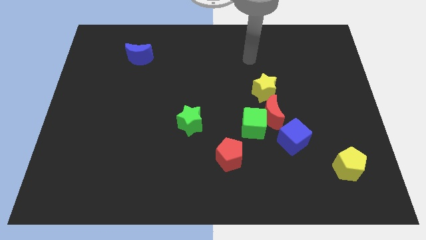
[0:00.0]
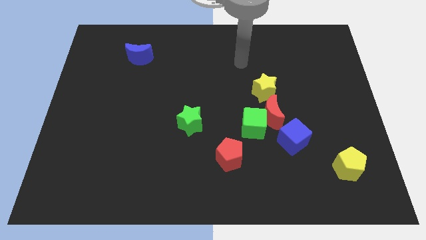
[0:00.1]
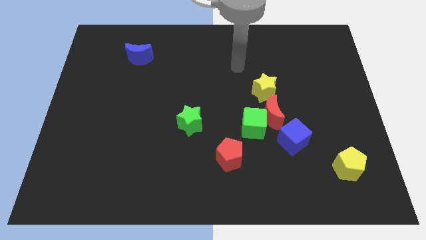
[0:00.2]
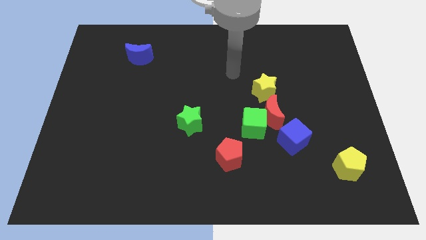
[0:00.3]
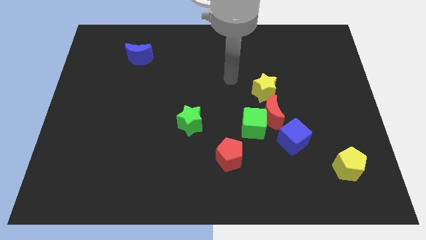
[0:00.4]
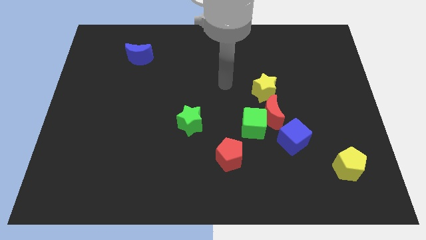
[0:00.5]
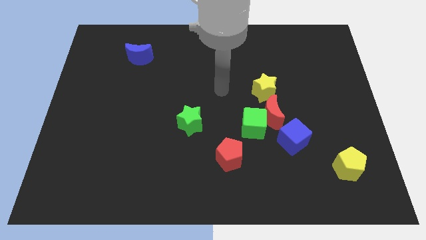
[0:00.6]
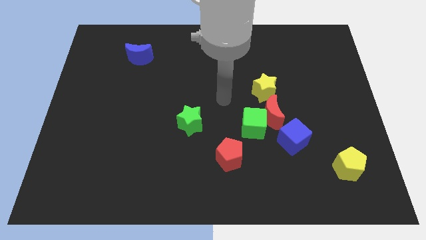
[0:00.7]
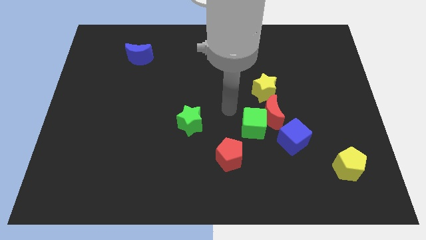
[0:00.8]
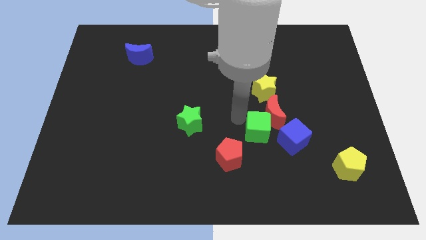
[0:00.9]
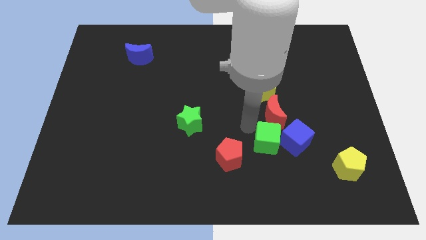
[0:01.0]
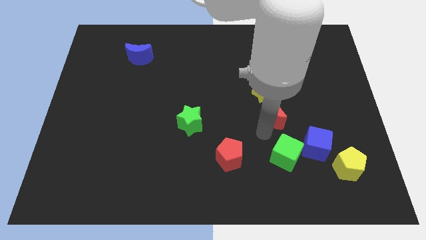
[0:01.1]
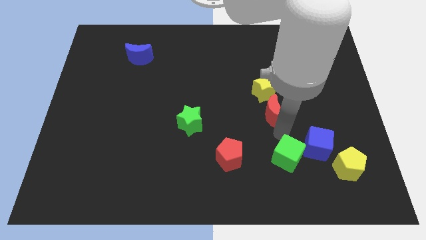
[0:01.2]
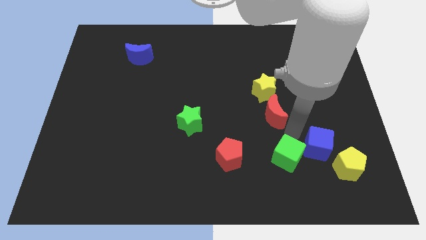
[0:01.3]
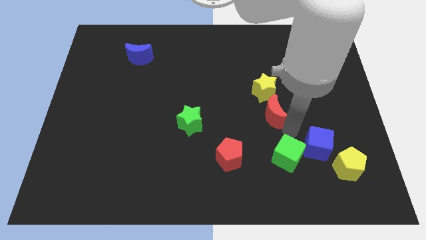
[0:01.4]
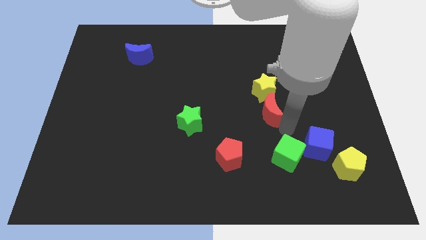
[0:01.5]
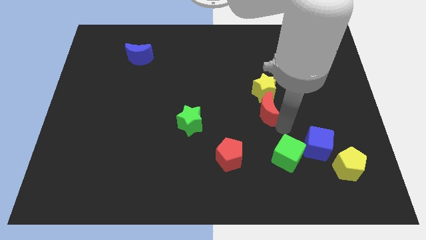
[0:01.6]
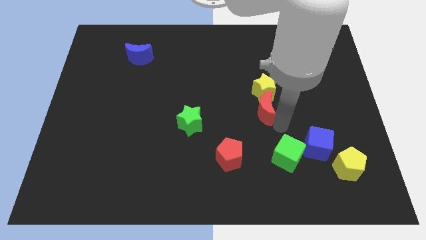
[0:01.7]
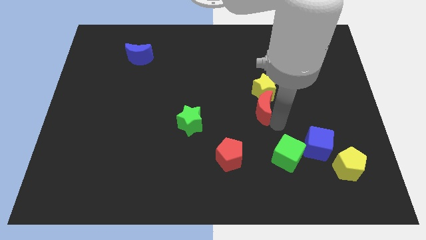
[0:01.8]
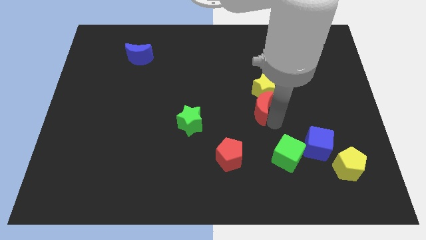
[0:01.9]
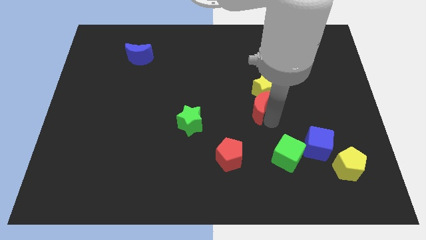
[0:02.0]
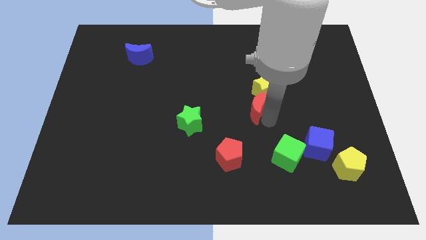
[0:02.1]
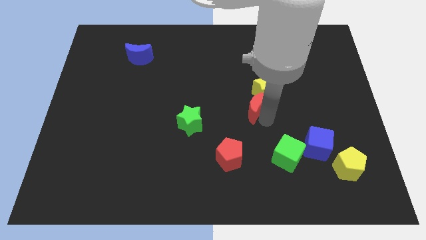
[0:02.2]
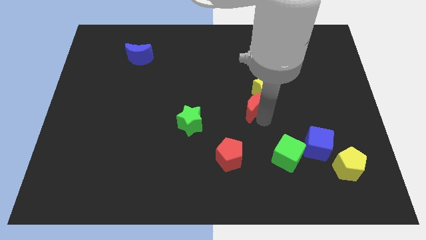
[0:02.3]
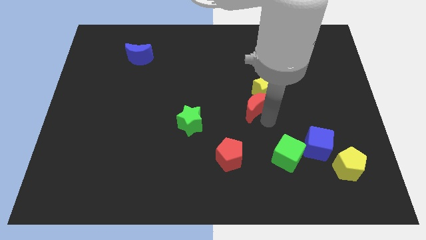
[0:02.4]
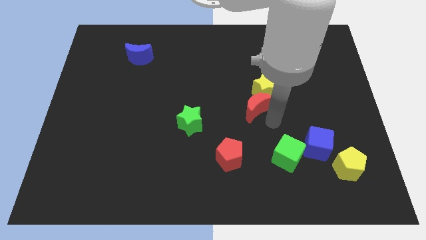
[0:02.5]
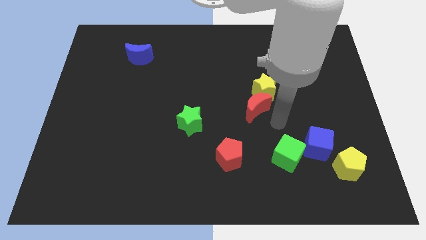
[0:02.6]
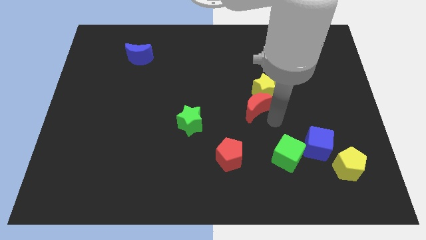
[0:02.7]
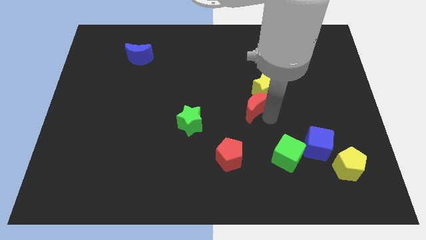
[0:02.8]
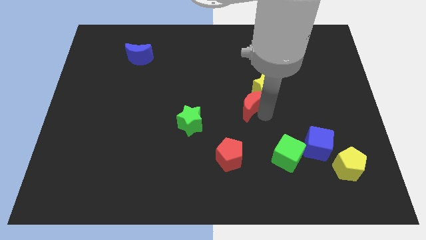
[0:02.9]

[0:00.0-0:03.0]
pull the red moon apart from the green cube, yellow star, and blue cube

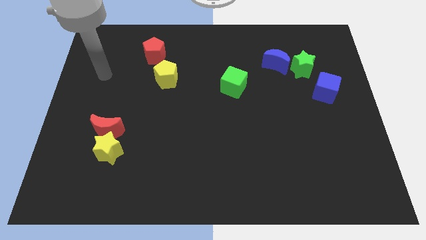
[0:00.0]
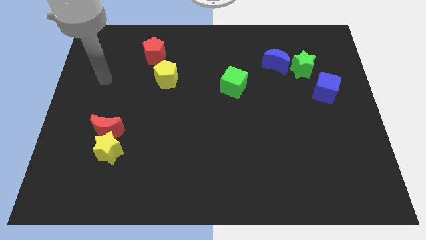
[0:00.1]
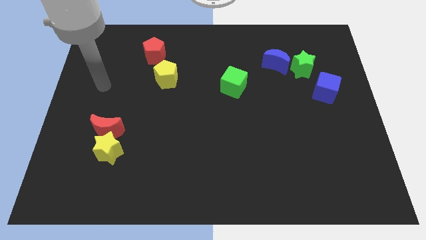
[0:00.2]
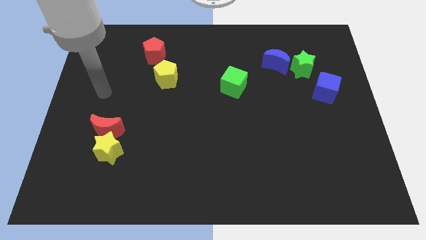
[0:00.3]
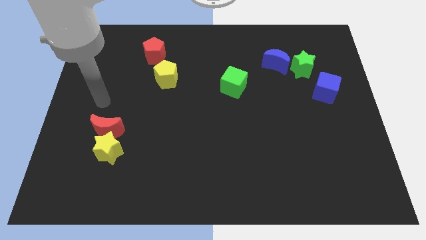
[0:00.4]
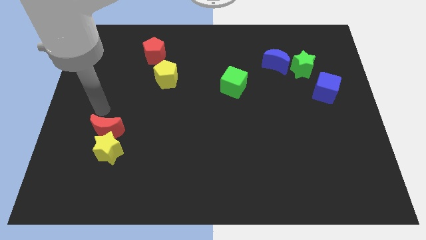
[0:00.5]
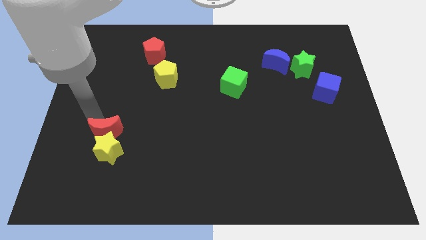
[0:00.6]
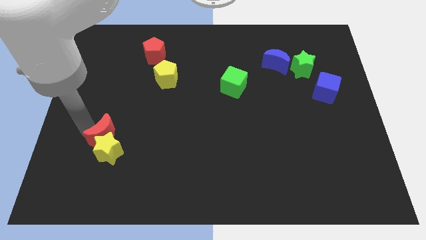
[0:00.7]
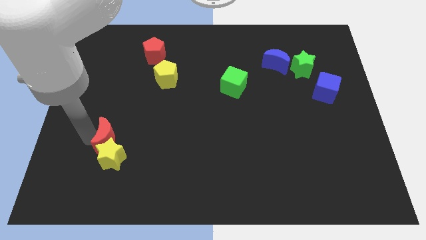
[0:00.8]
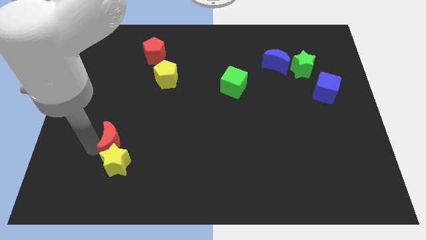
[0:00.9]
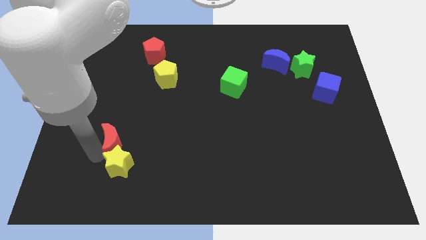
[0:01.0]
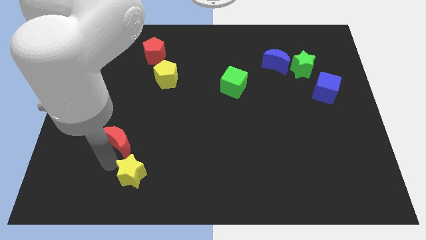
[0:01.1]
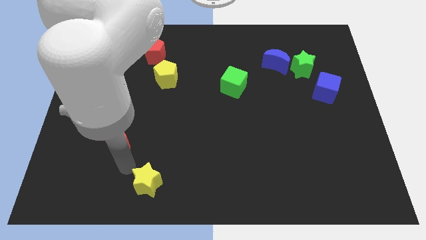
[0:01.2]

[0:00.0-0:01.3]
move the red moon away from the yellow star

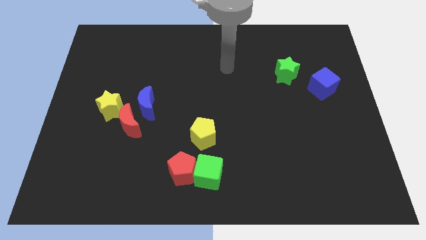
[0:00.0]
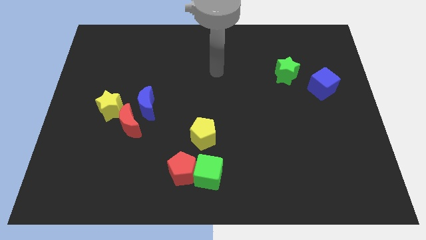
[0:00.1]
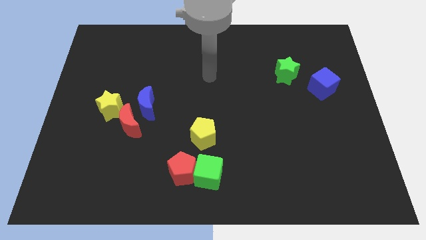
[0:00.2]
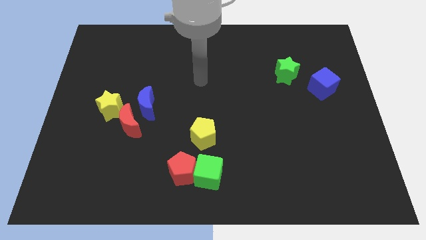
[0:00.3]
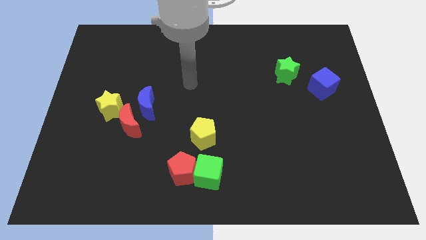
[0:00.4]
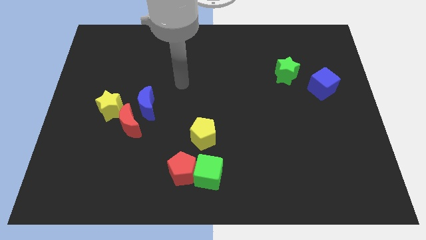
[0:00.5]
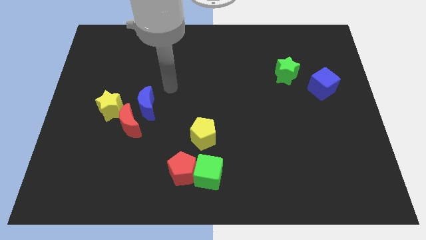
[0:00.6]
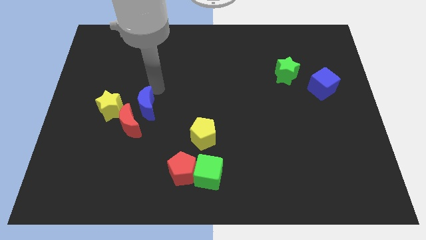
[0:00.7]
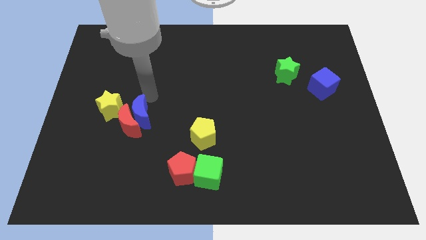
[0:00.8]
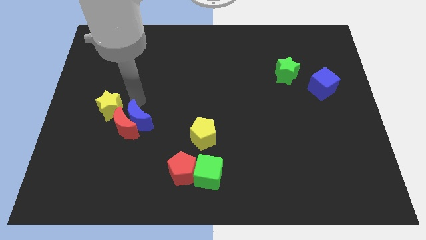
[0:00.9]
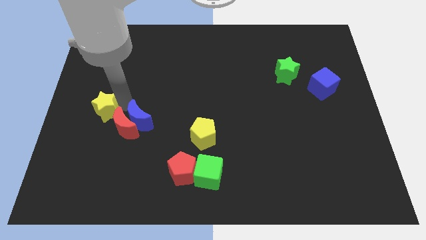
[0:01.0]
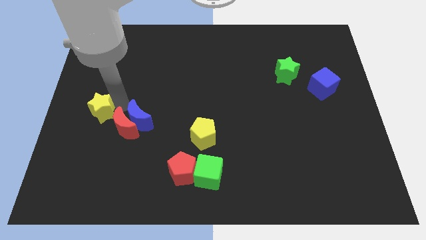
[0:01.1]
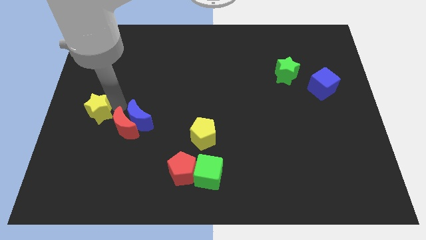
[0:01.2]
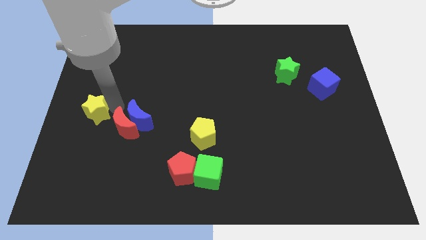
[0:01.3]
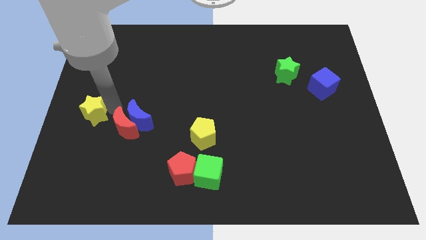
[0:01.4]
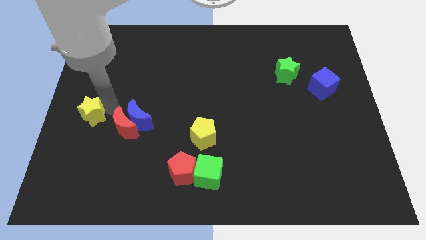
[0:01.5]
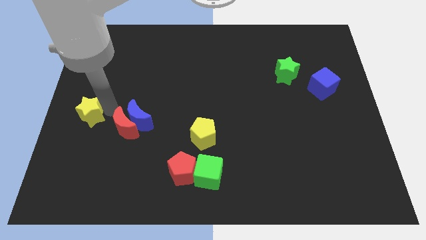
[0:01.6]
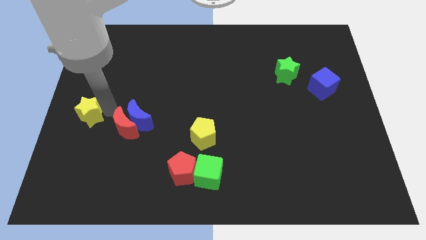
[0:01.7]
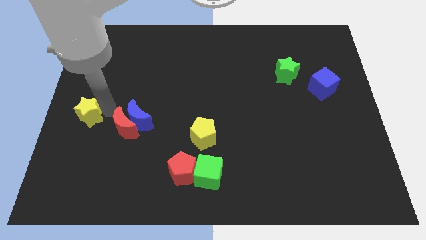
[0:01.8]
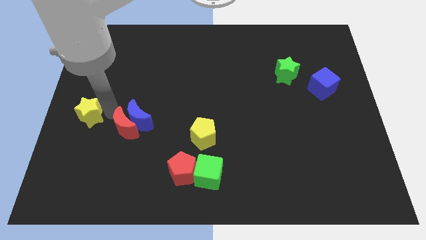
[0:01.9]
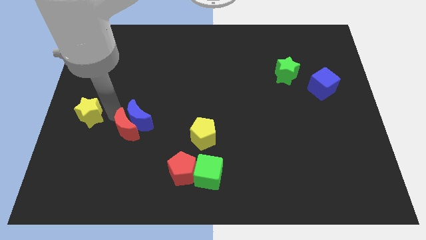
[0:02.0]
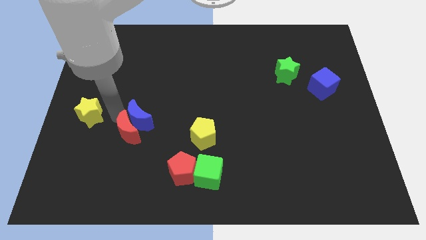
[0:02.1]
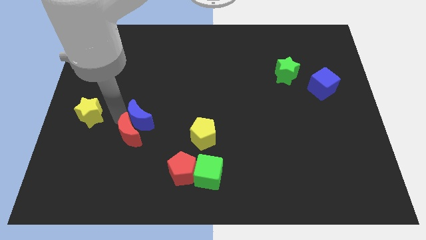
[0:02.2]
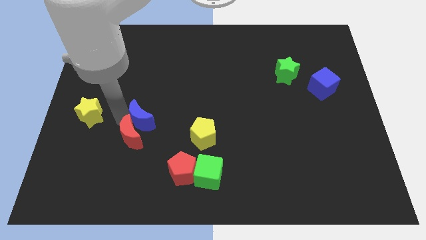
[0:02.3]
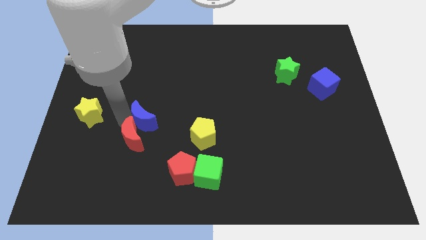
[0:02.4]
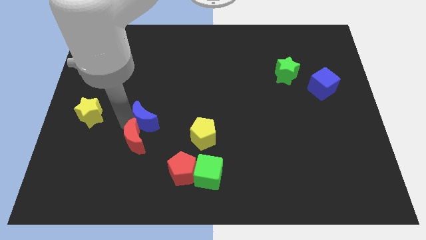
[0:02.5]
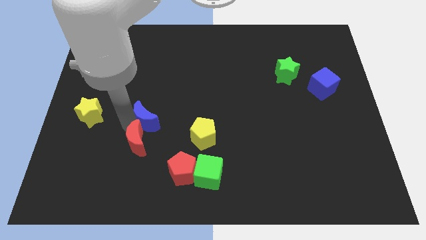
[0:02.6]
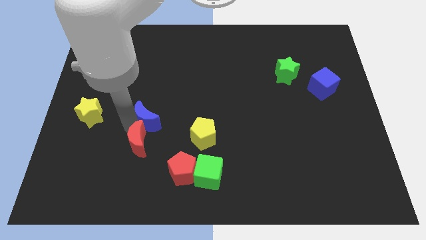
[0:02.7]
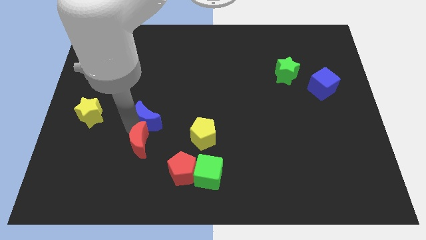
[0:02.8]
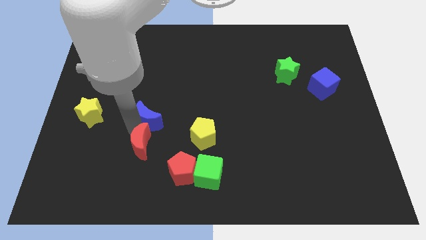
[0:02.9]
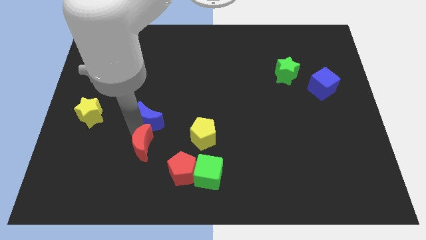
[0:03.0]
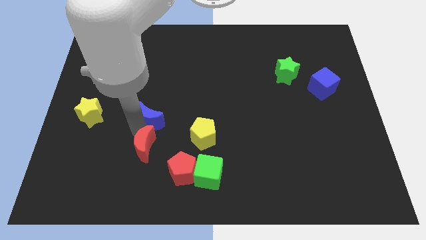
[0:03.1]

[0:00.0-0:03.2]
move the red moon away from the blue moon and yellow star

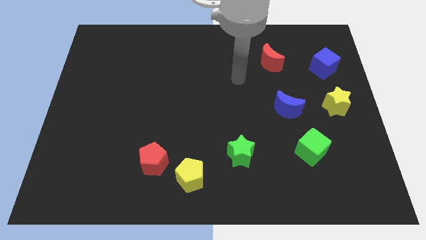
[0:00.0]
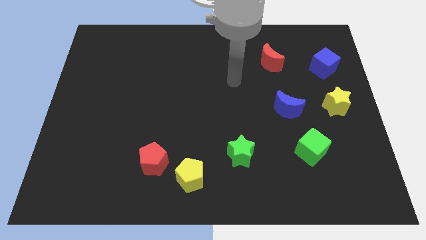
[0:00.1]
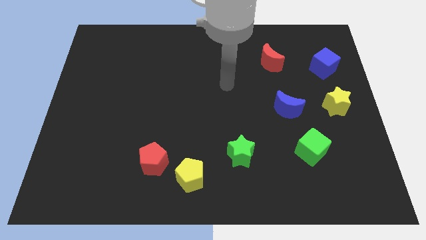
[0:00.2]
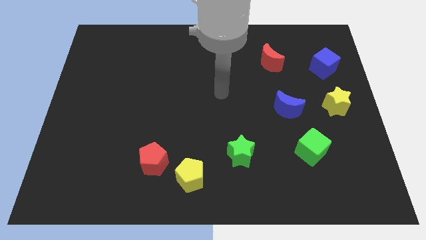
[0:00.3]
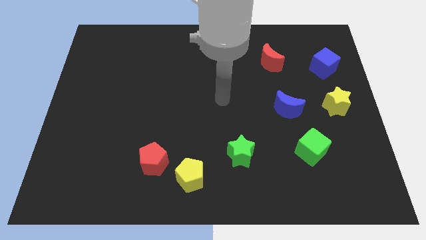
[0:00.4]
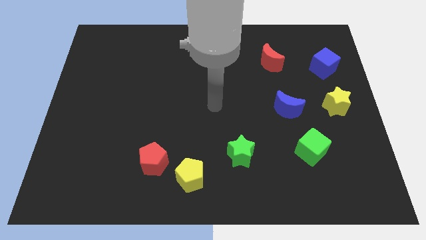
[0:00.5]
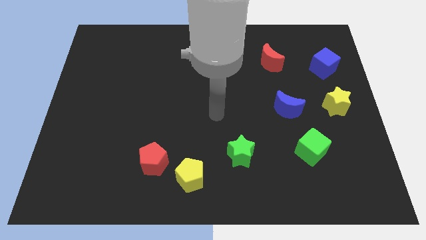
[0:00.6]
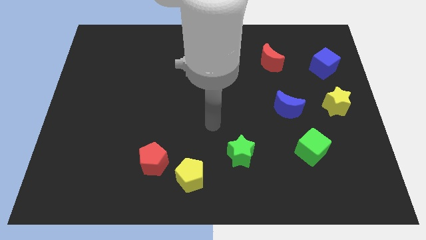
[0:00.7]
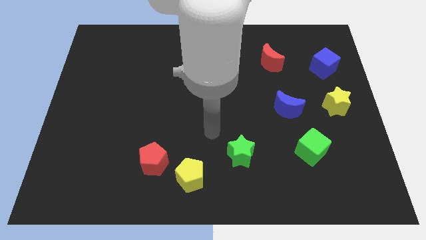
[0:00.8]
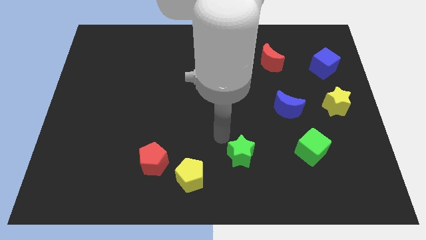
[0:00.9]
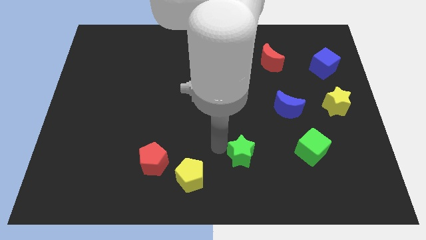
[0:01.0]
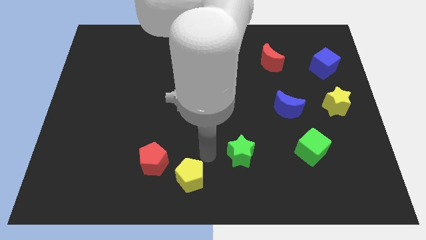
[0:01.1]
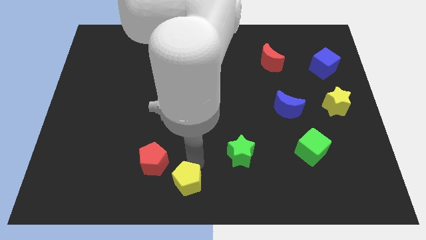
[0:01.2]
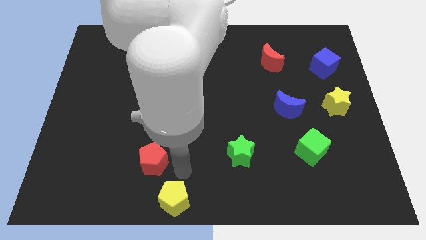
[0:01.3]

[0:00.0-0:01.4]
separate the red pentagon from the yellow pentagon

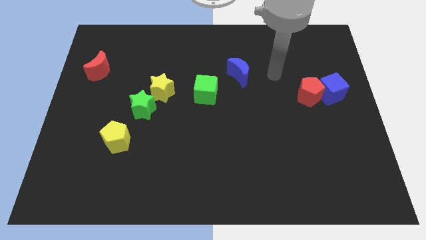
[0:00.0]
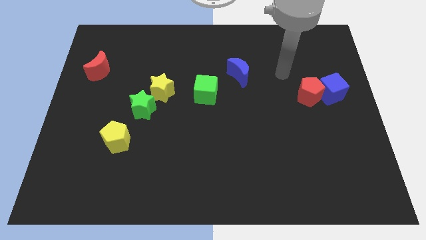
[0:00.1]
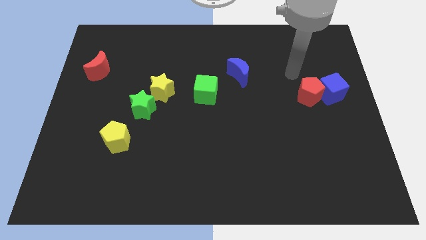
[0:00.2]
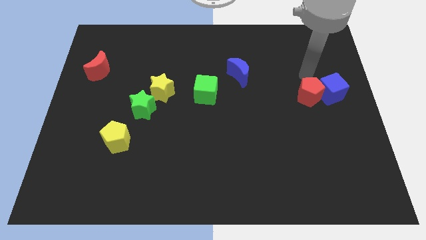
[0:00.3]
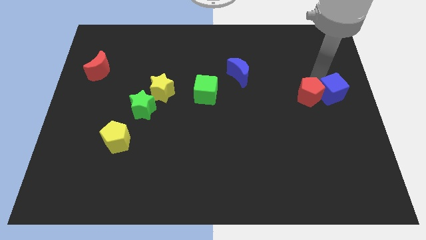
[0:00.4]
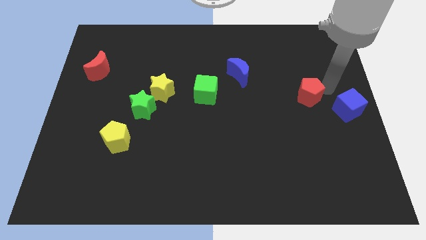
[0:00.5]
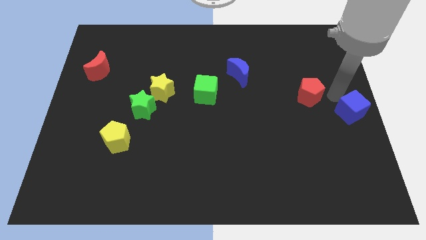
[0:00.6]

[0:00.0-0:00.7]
separate the red pentagon from the blue cube
